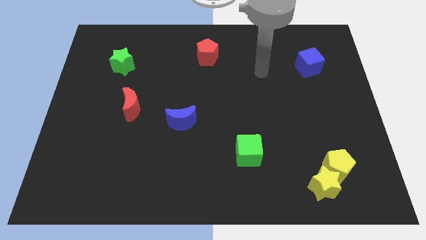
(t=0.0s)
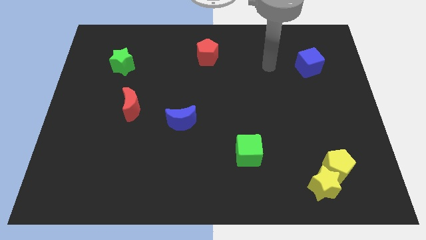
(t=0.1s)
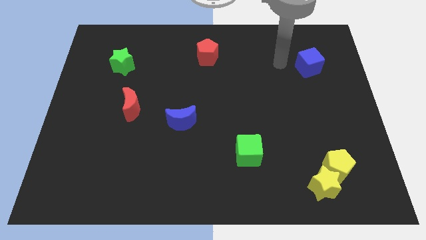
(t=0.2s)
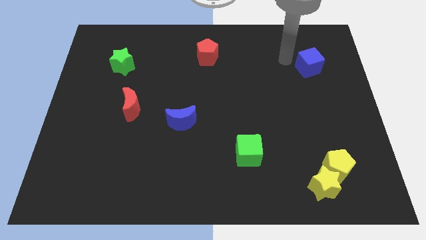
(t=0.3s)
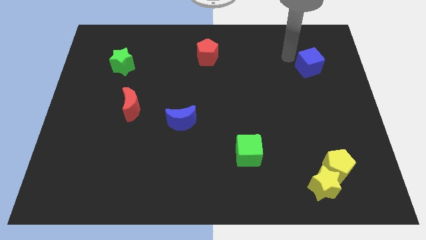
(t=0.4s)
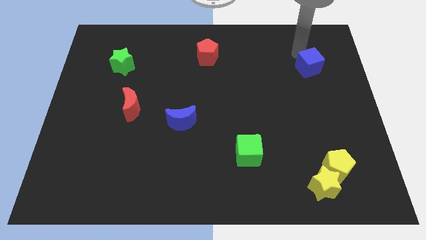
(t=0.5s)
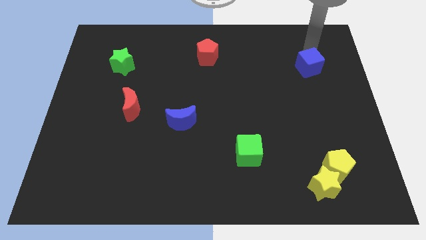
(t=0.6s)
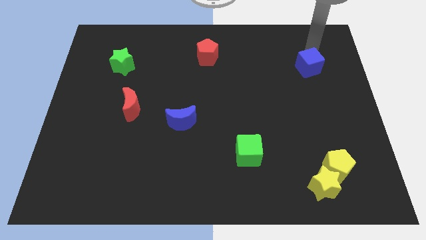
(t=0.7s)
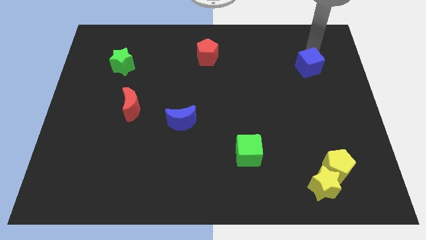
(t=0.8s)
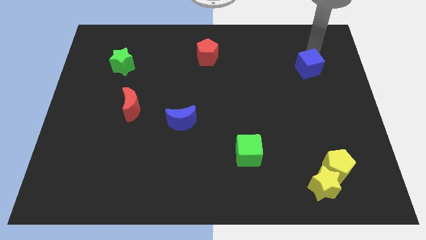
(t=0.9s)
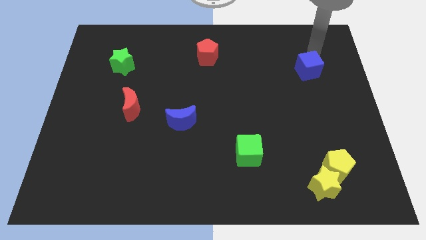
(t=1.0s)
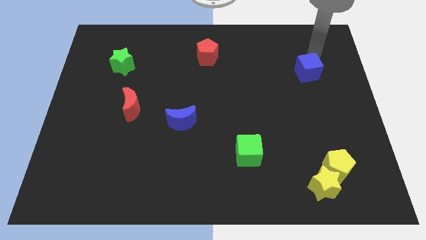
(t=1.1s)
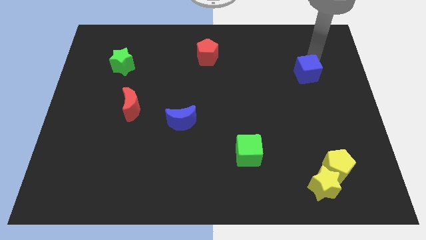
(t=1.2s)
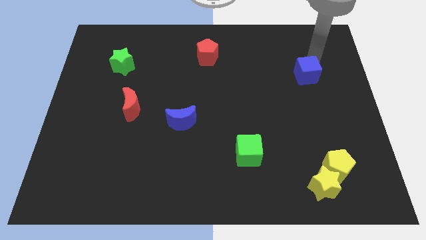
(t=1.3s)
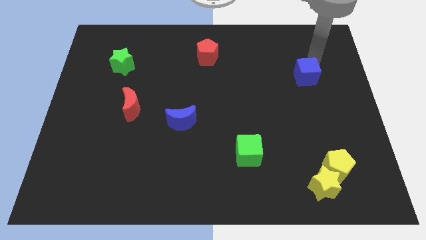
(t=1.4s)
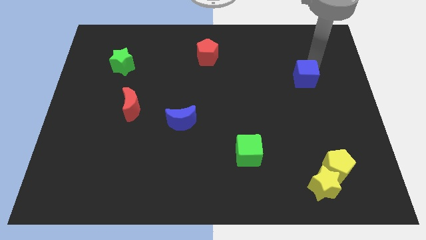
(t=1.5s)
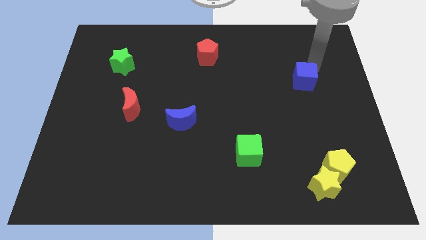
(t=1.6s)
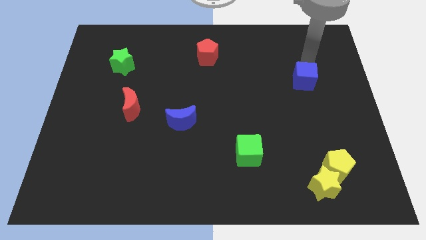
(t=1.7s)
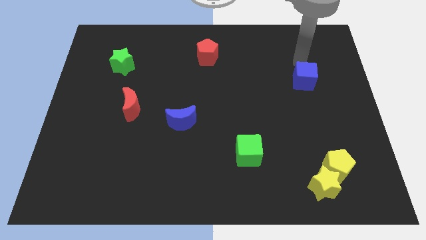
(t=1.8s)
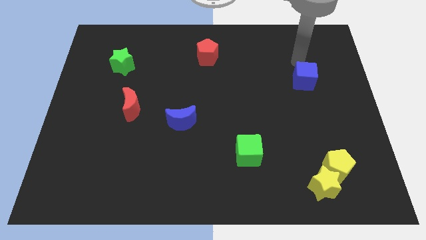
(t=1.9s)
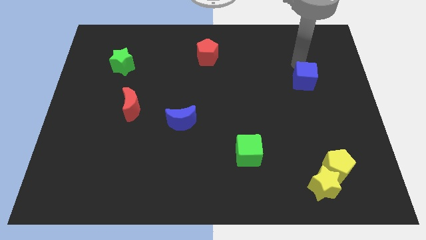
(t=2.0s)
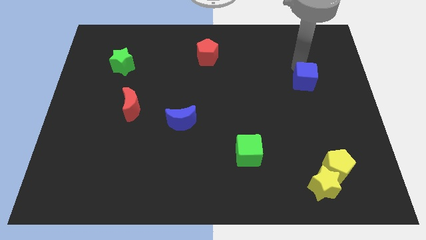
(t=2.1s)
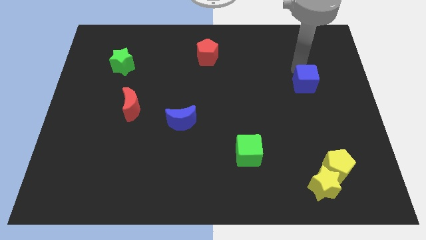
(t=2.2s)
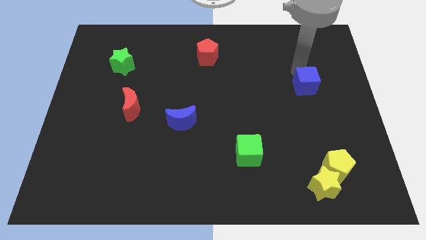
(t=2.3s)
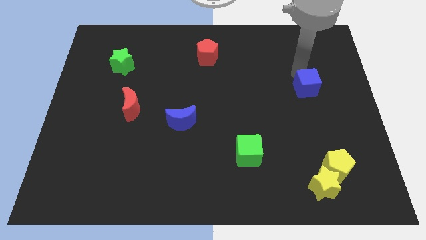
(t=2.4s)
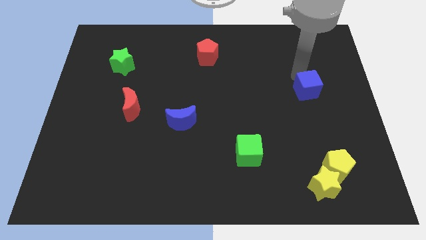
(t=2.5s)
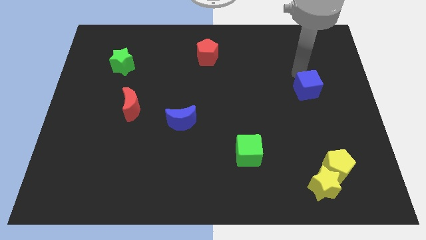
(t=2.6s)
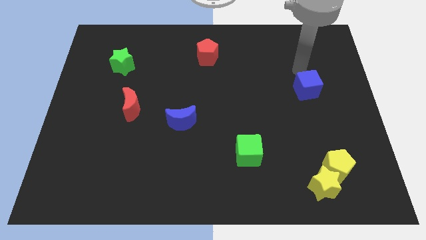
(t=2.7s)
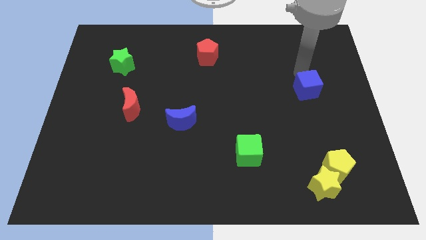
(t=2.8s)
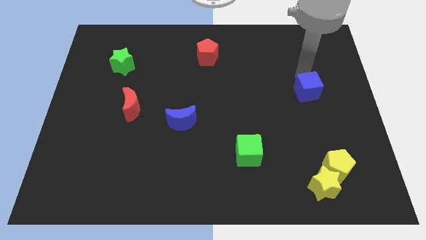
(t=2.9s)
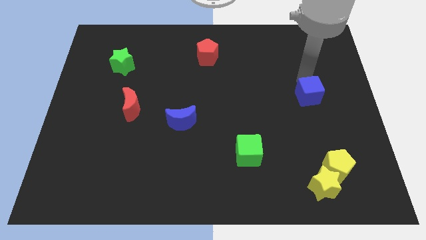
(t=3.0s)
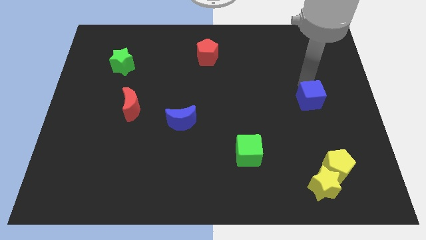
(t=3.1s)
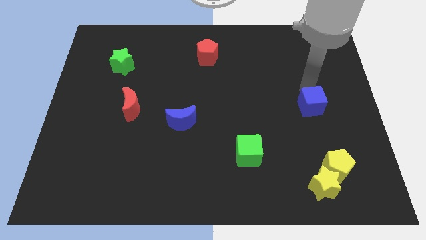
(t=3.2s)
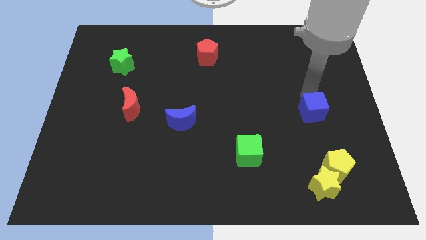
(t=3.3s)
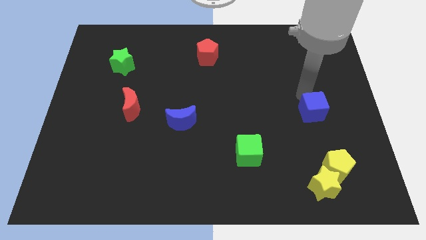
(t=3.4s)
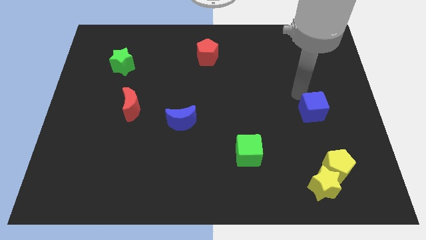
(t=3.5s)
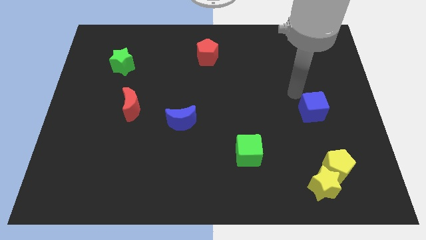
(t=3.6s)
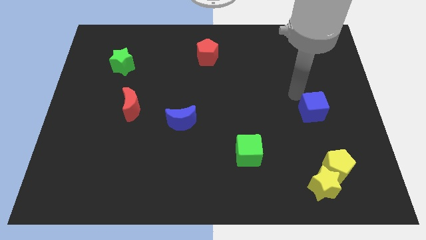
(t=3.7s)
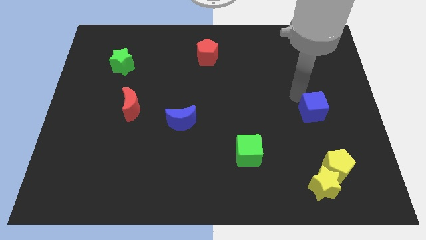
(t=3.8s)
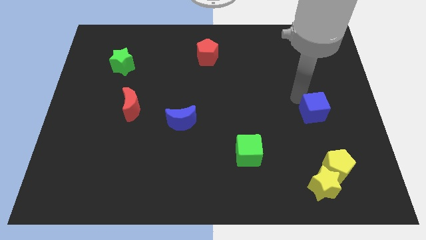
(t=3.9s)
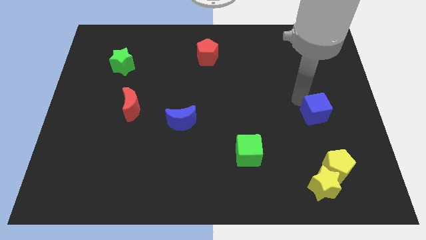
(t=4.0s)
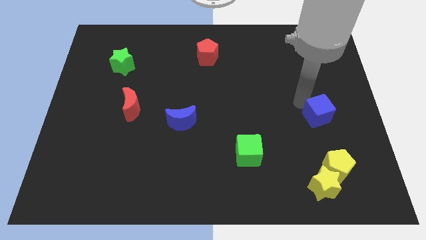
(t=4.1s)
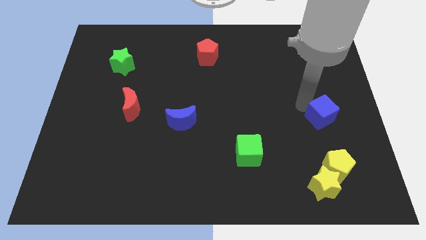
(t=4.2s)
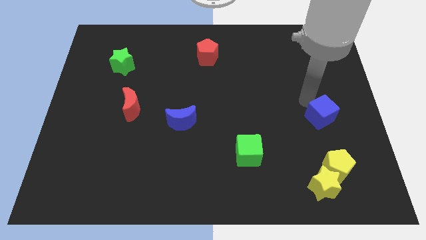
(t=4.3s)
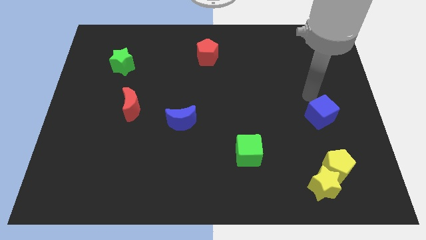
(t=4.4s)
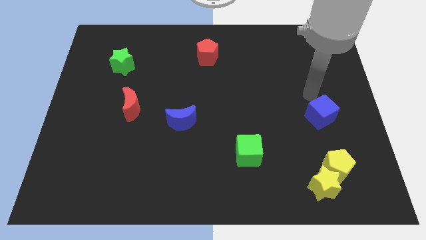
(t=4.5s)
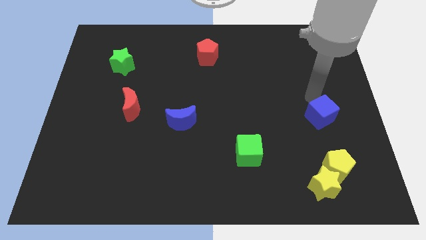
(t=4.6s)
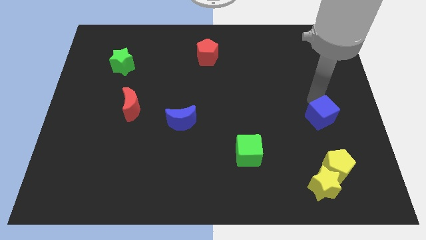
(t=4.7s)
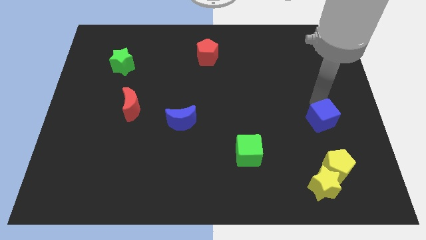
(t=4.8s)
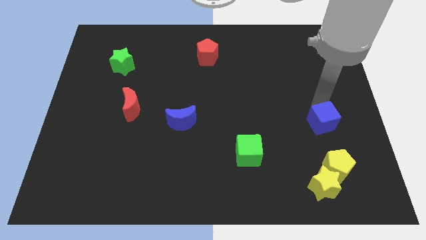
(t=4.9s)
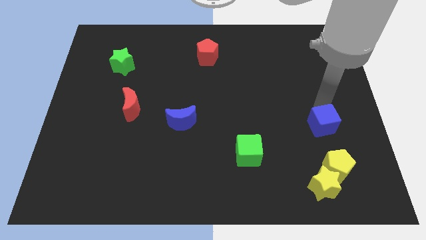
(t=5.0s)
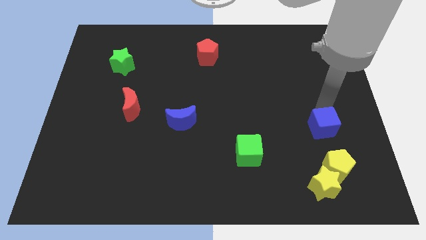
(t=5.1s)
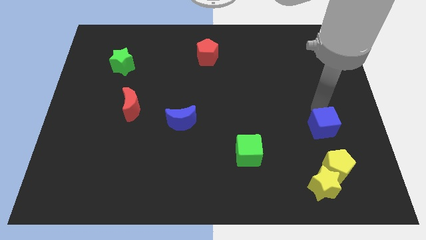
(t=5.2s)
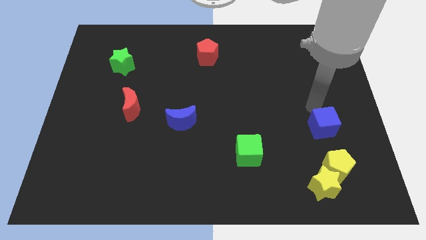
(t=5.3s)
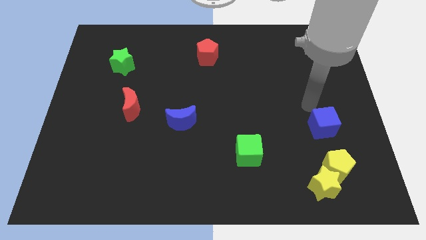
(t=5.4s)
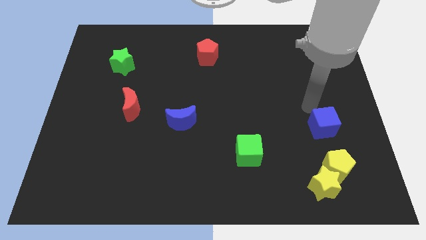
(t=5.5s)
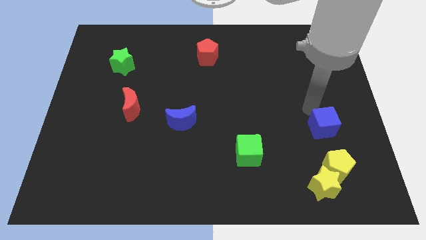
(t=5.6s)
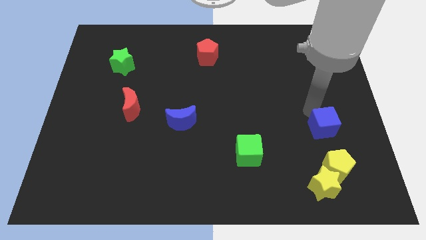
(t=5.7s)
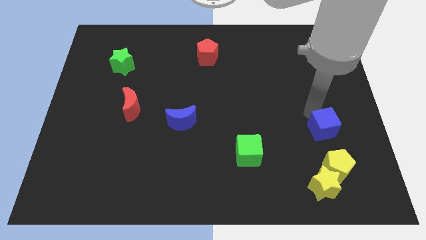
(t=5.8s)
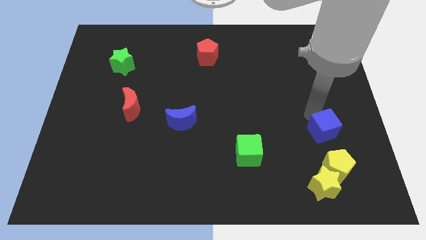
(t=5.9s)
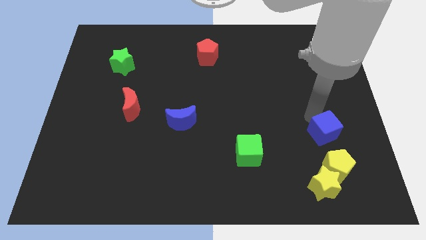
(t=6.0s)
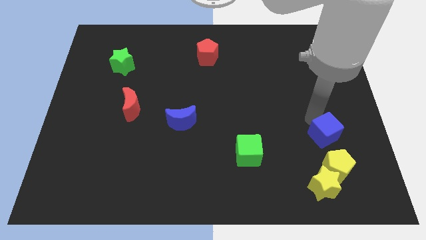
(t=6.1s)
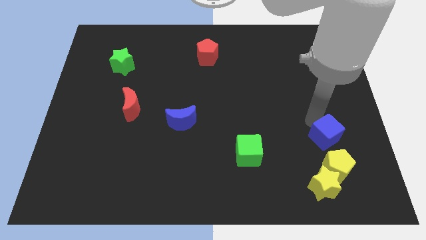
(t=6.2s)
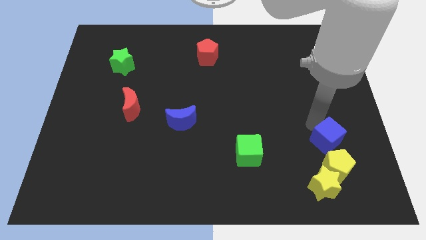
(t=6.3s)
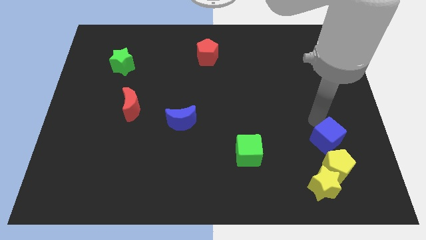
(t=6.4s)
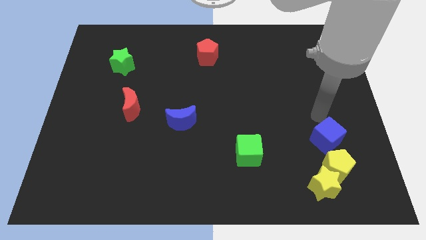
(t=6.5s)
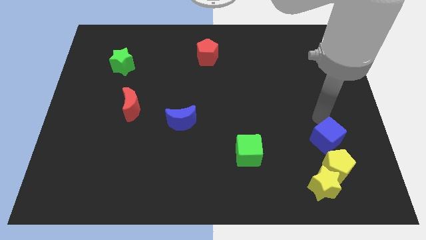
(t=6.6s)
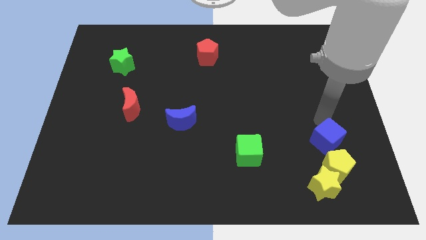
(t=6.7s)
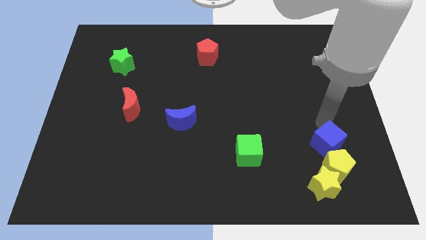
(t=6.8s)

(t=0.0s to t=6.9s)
move the blue cube towards the yellow pentagon

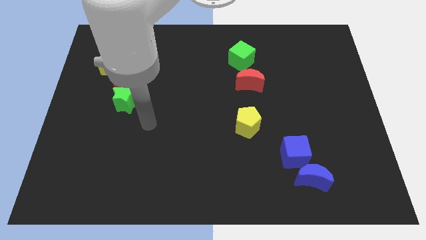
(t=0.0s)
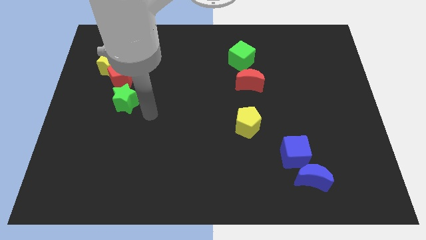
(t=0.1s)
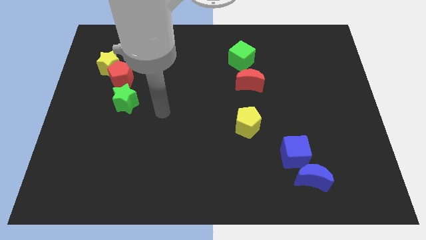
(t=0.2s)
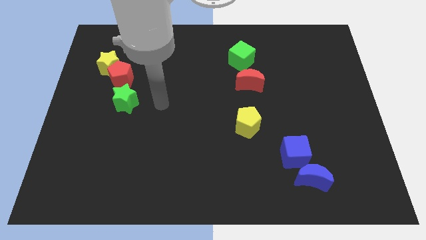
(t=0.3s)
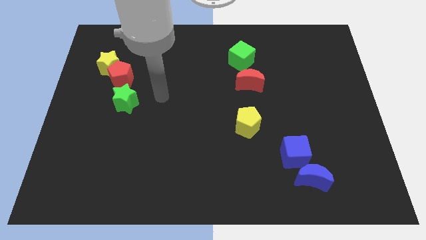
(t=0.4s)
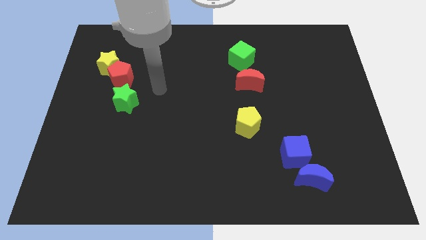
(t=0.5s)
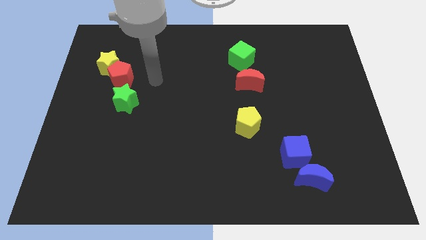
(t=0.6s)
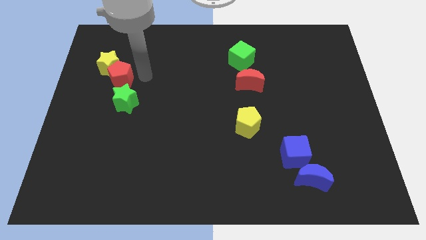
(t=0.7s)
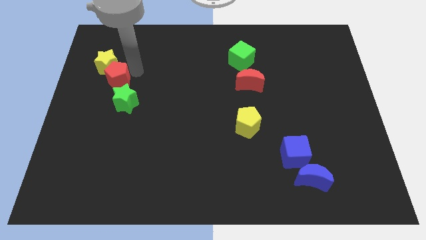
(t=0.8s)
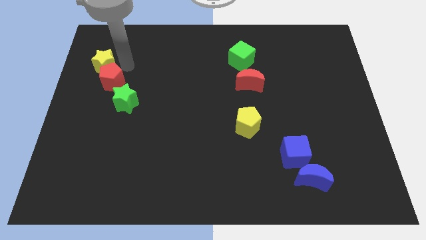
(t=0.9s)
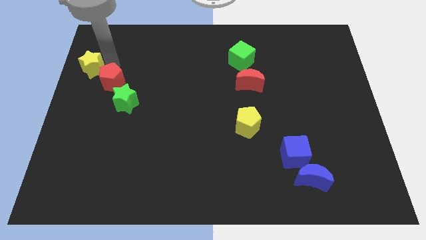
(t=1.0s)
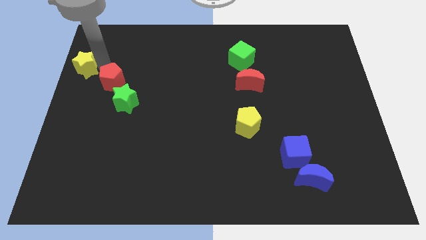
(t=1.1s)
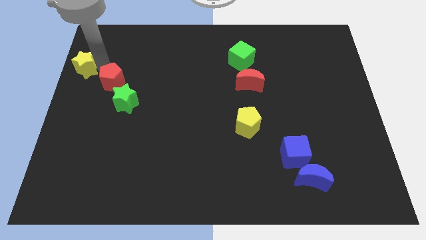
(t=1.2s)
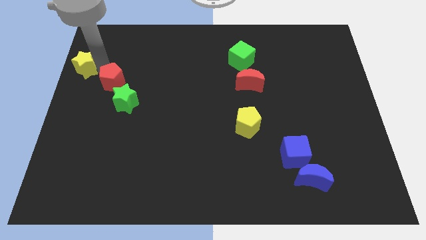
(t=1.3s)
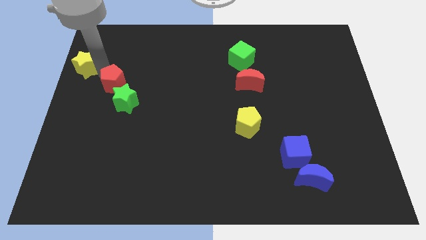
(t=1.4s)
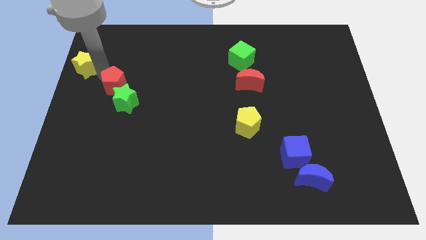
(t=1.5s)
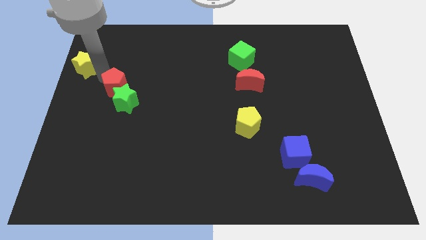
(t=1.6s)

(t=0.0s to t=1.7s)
push the red pentagon towards the green star
